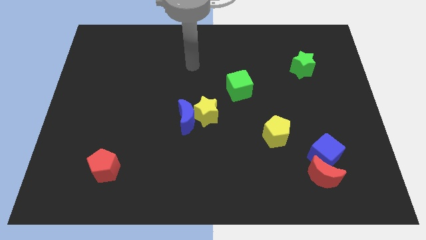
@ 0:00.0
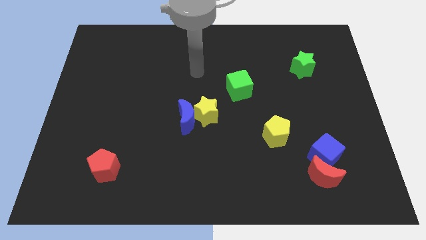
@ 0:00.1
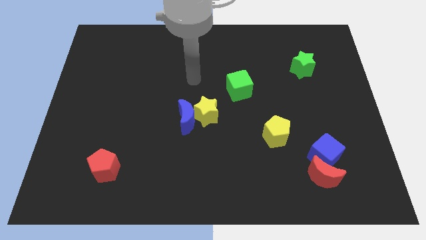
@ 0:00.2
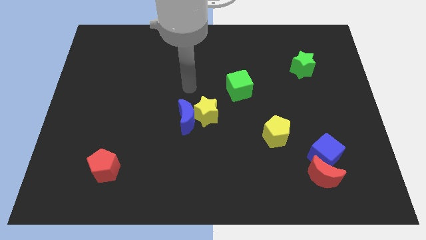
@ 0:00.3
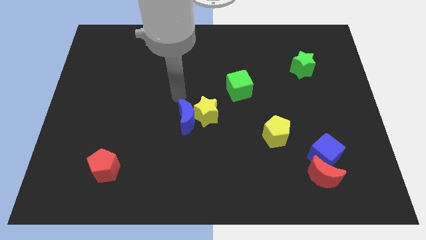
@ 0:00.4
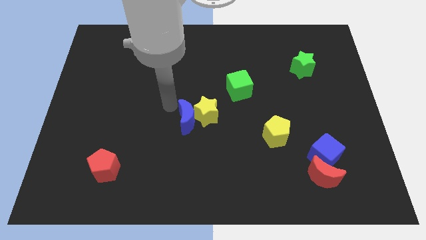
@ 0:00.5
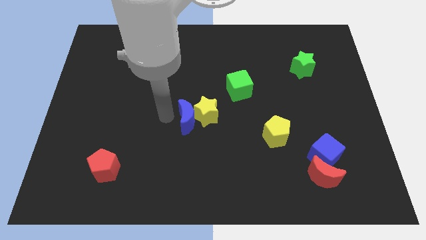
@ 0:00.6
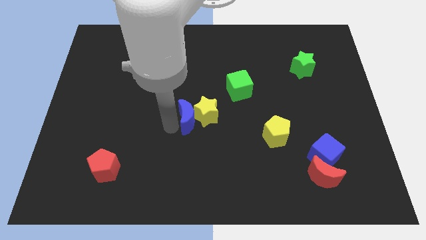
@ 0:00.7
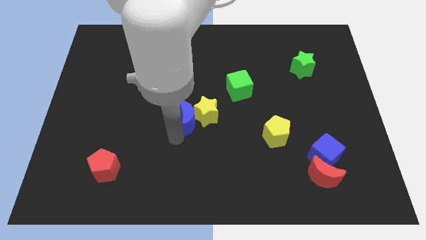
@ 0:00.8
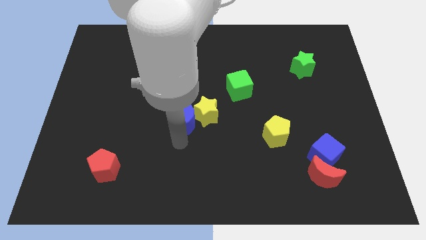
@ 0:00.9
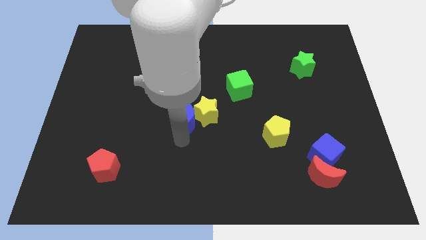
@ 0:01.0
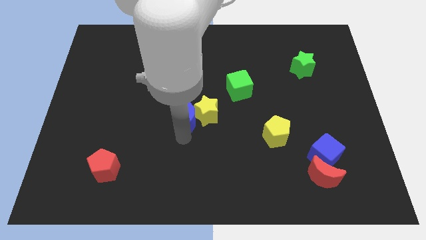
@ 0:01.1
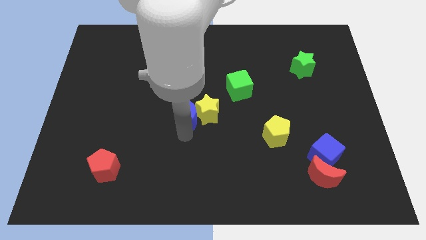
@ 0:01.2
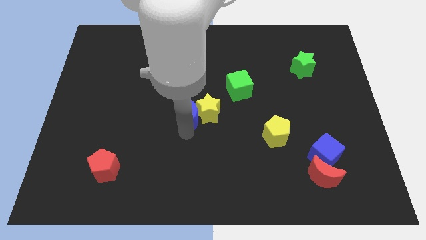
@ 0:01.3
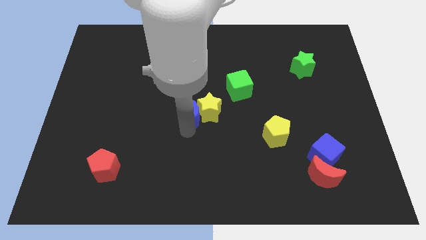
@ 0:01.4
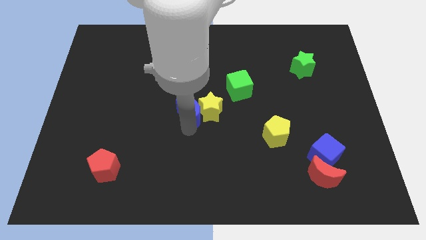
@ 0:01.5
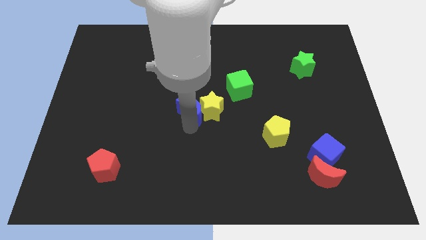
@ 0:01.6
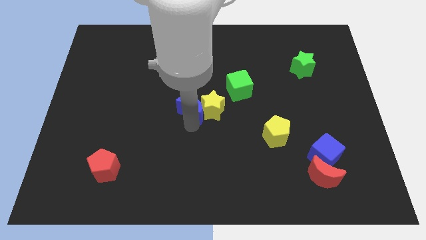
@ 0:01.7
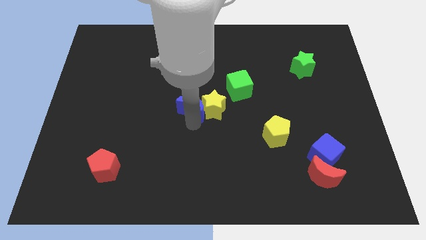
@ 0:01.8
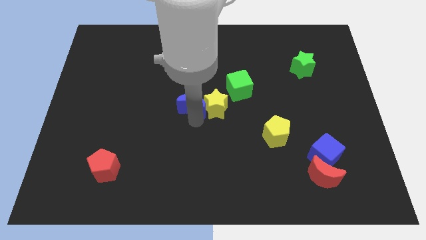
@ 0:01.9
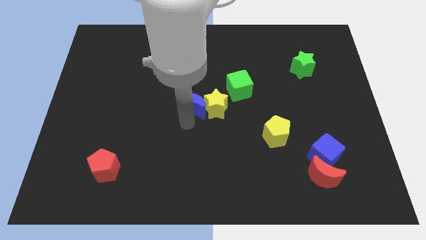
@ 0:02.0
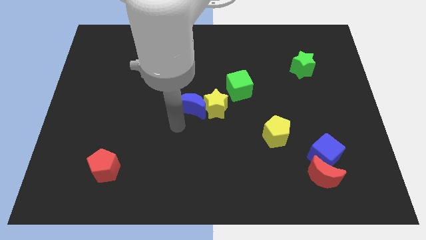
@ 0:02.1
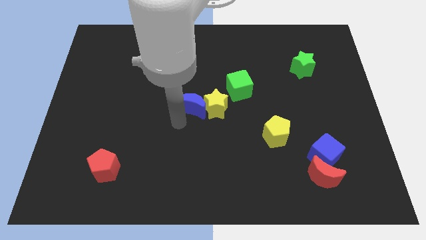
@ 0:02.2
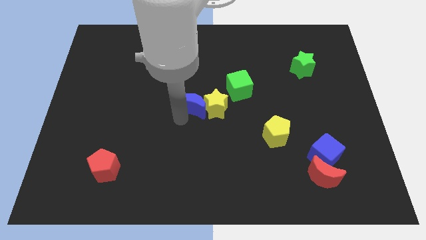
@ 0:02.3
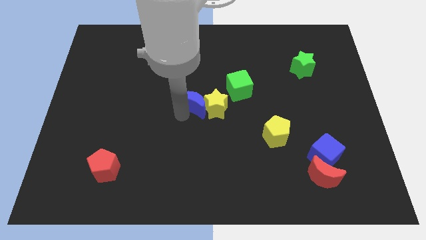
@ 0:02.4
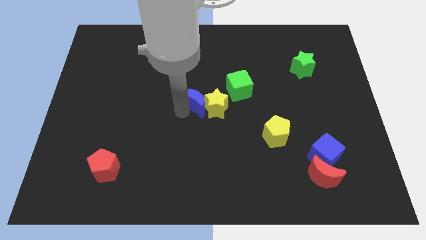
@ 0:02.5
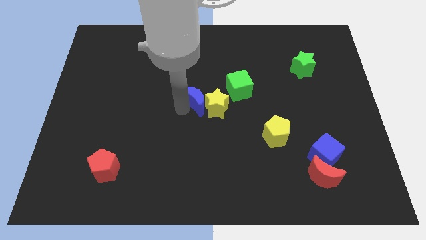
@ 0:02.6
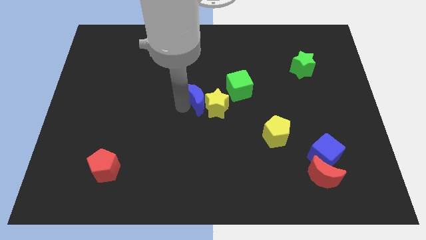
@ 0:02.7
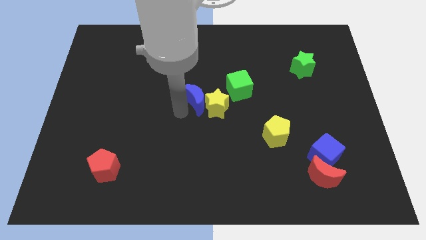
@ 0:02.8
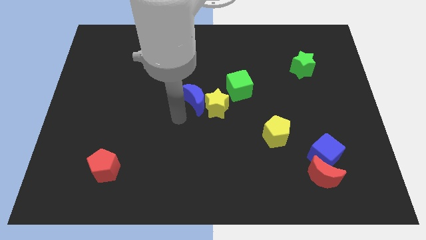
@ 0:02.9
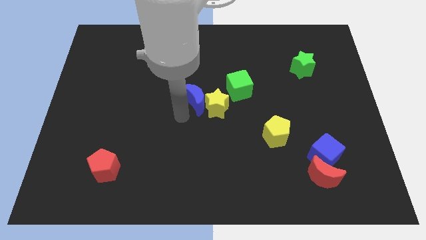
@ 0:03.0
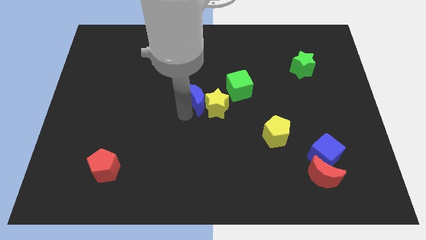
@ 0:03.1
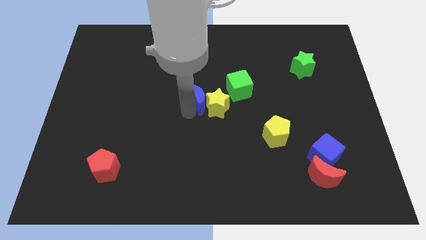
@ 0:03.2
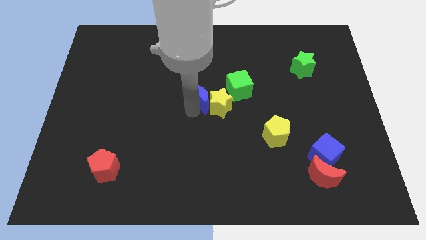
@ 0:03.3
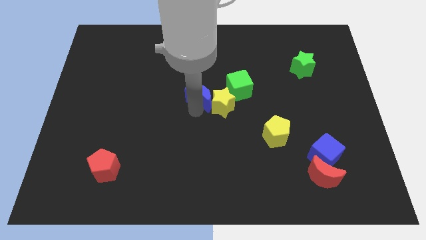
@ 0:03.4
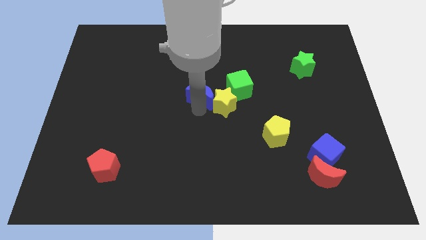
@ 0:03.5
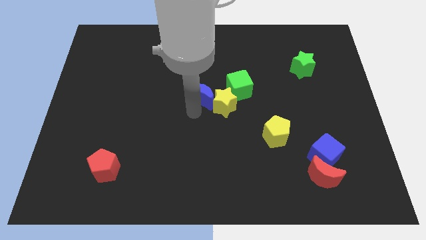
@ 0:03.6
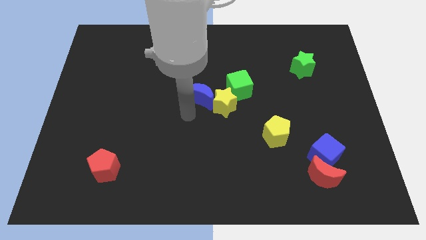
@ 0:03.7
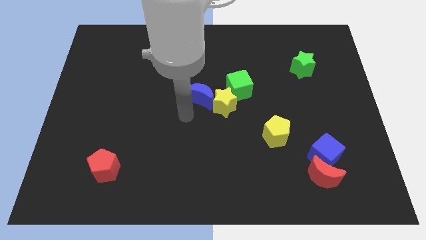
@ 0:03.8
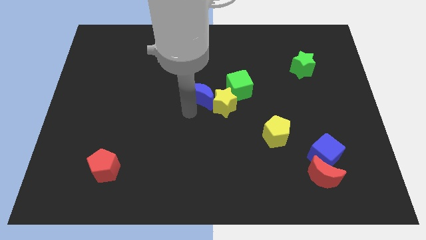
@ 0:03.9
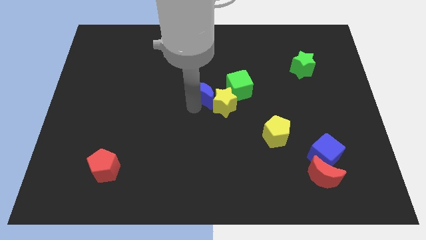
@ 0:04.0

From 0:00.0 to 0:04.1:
slide the blue moon slightly diagonally upwards and to the right

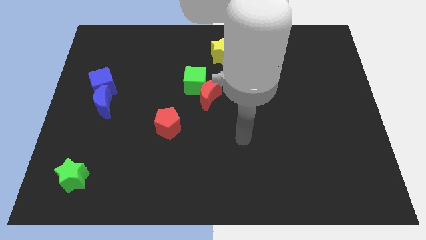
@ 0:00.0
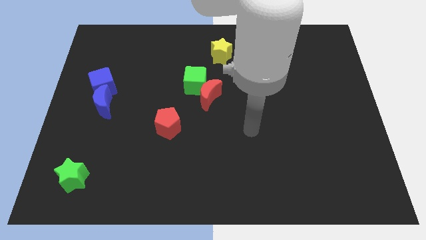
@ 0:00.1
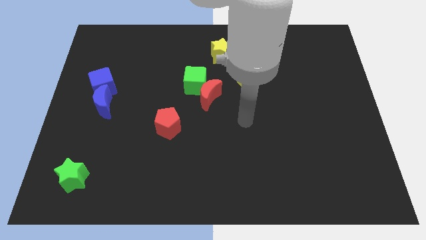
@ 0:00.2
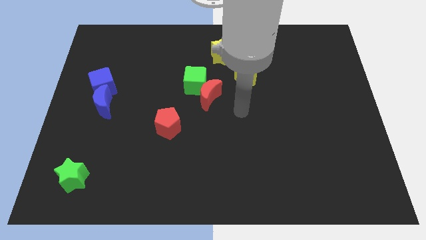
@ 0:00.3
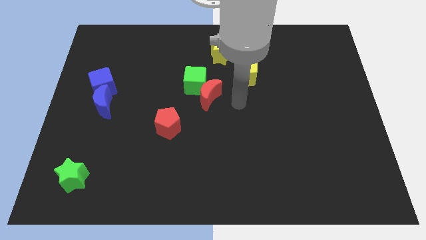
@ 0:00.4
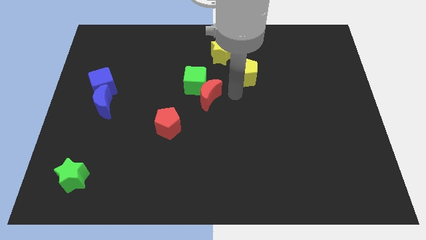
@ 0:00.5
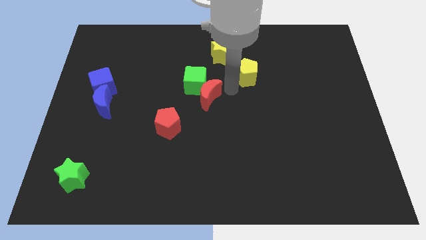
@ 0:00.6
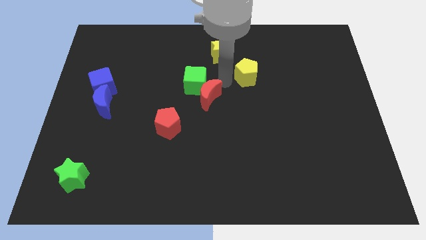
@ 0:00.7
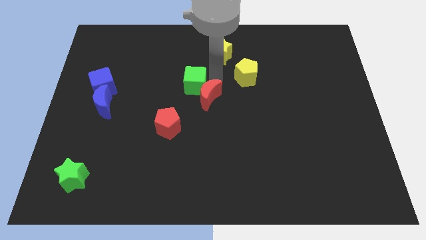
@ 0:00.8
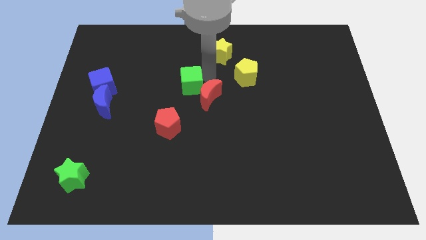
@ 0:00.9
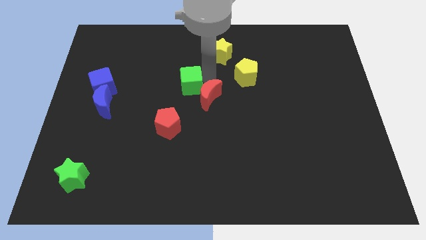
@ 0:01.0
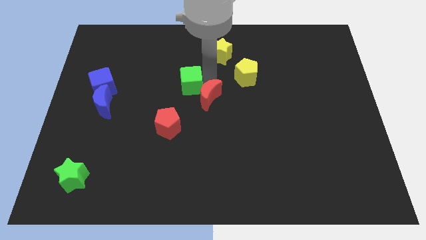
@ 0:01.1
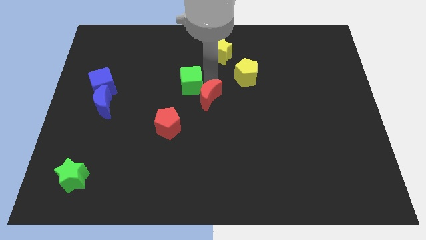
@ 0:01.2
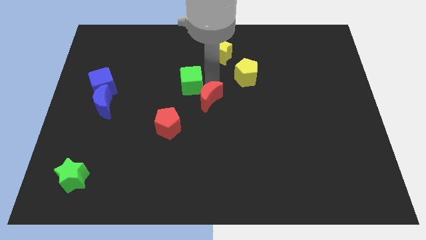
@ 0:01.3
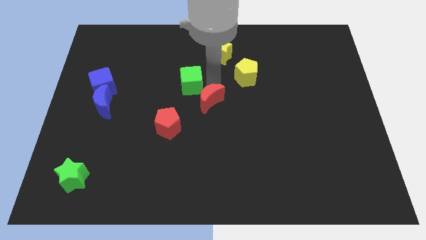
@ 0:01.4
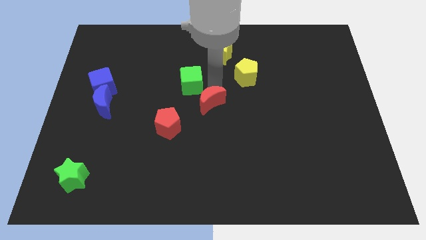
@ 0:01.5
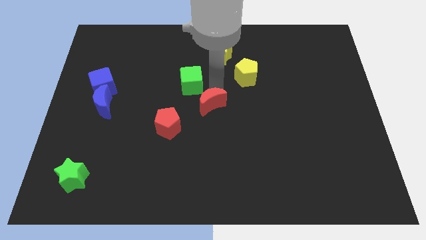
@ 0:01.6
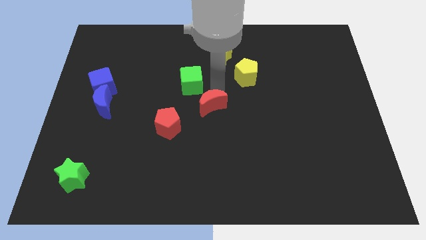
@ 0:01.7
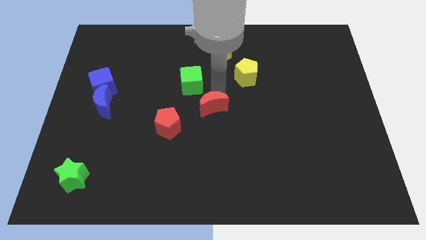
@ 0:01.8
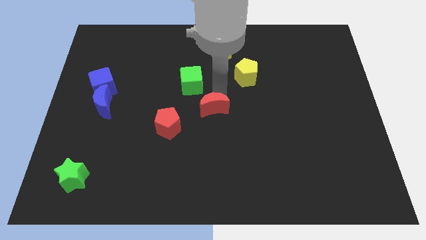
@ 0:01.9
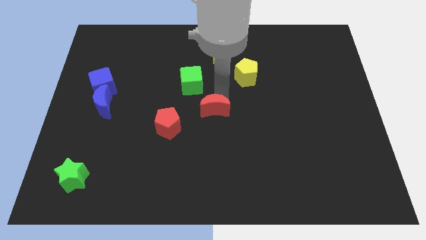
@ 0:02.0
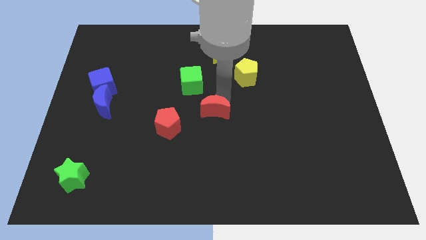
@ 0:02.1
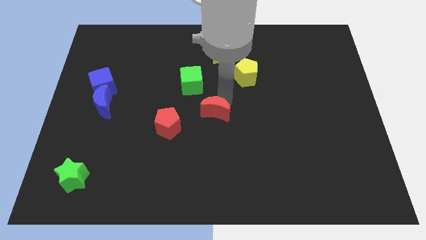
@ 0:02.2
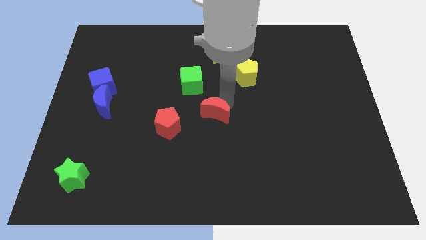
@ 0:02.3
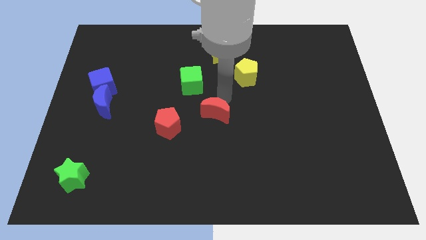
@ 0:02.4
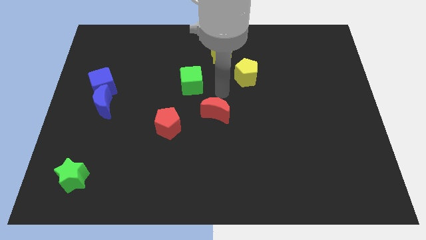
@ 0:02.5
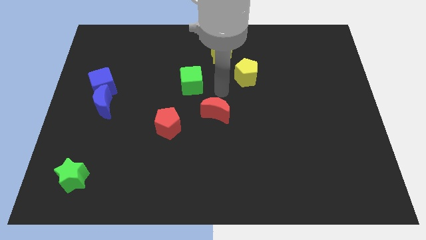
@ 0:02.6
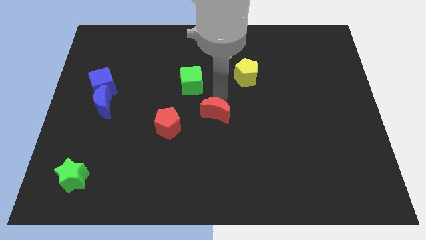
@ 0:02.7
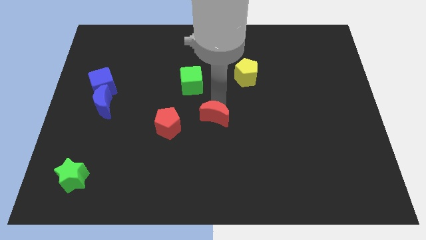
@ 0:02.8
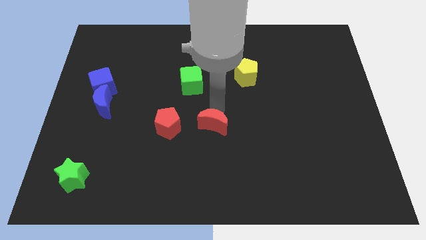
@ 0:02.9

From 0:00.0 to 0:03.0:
push the red moon slightly down

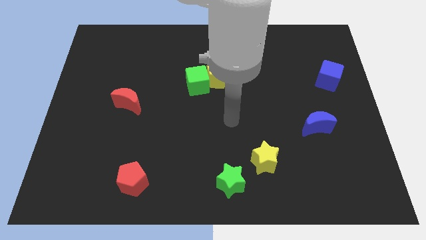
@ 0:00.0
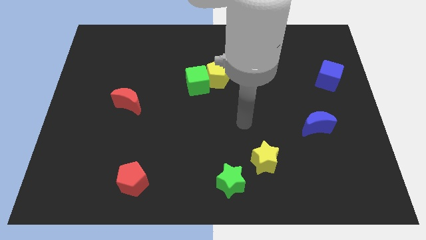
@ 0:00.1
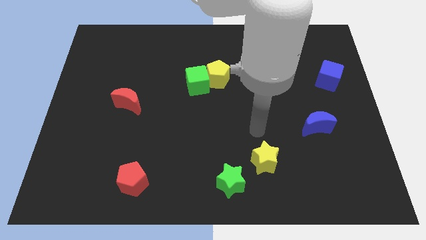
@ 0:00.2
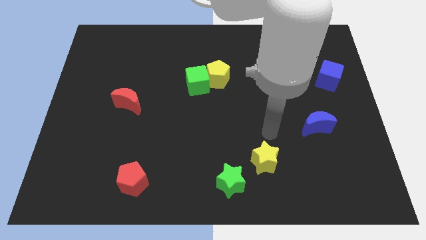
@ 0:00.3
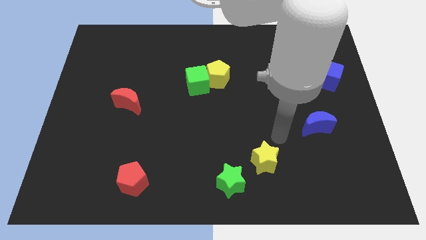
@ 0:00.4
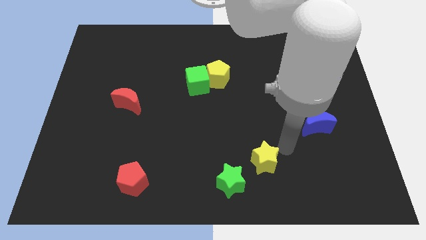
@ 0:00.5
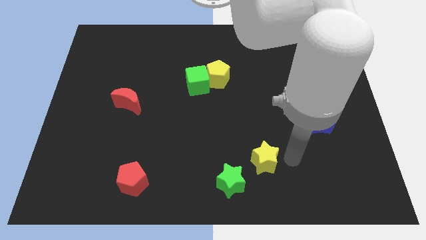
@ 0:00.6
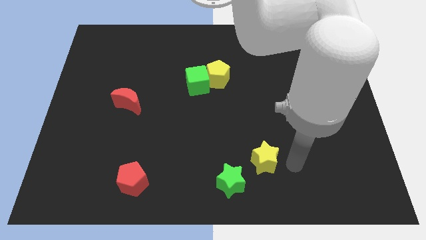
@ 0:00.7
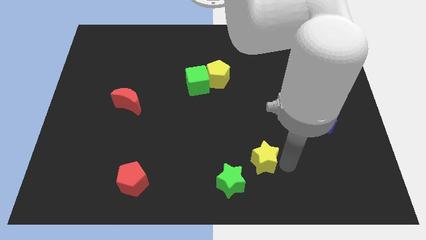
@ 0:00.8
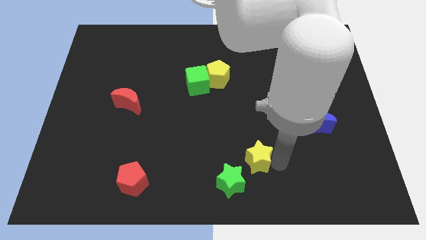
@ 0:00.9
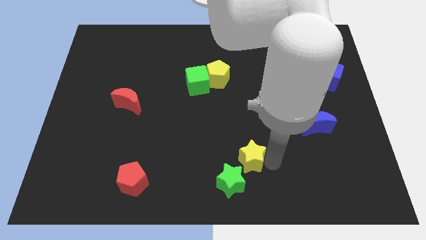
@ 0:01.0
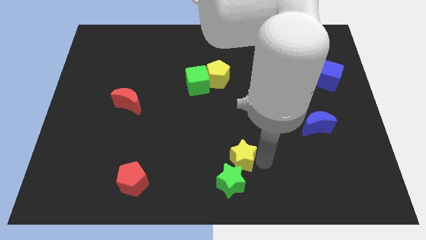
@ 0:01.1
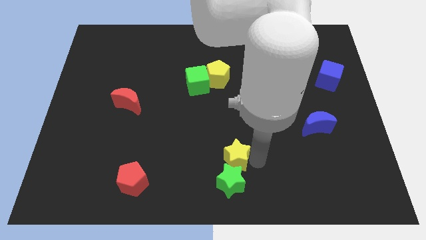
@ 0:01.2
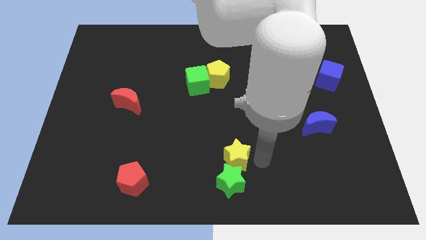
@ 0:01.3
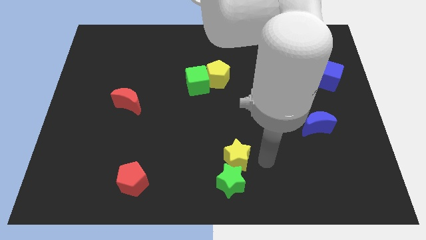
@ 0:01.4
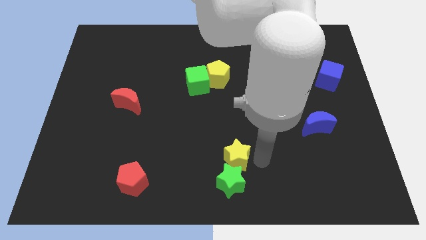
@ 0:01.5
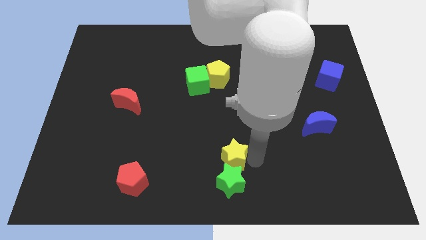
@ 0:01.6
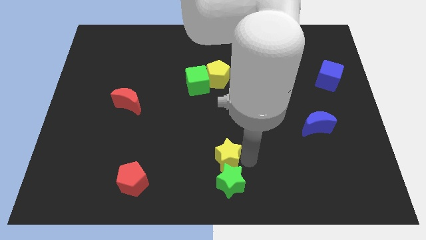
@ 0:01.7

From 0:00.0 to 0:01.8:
push the yellow star a little to the left
